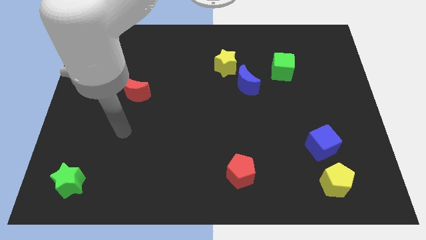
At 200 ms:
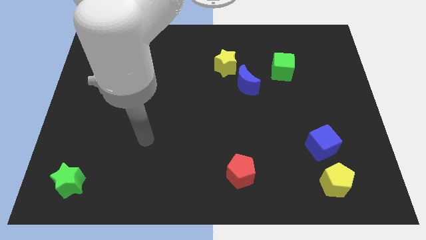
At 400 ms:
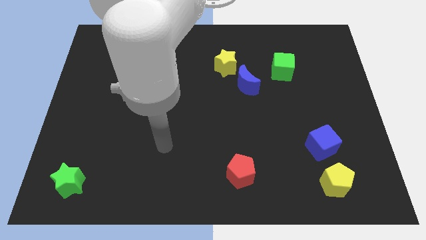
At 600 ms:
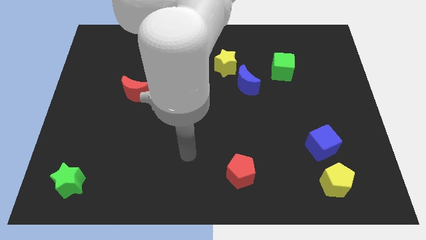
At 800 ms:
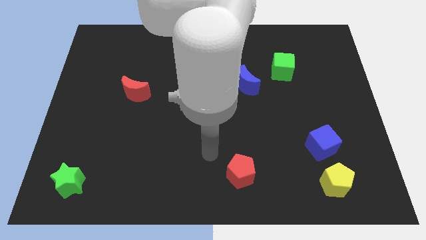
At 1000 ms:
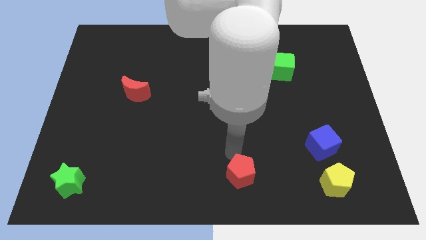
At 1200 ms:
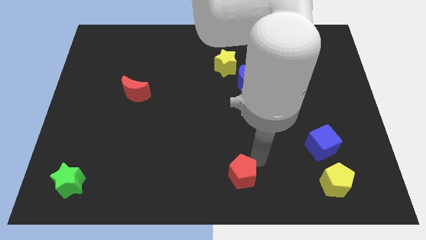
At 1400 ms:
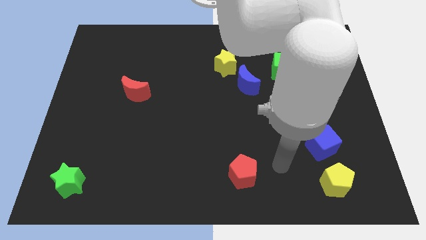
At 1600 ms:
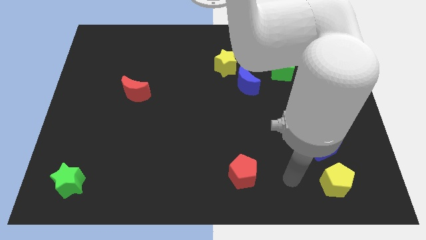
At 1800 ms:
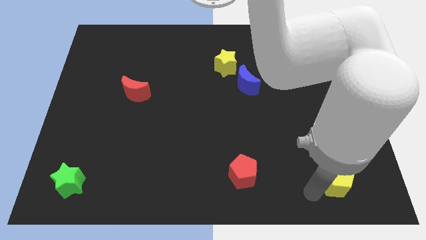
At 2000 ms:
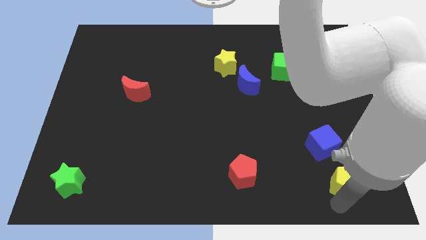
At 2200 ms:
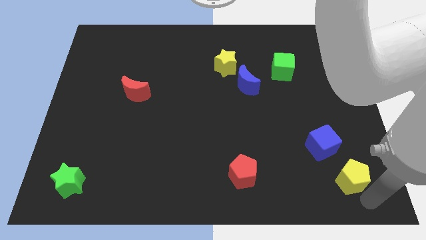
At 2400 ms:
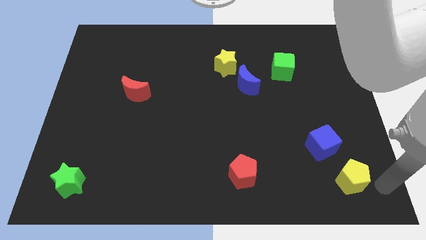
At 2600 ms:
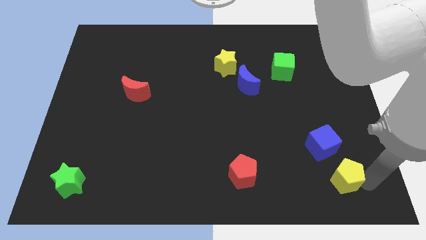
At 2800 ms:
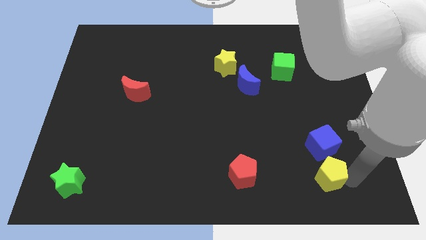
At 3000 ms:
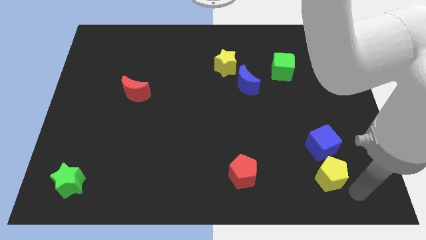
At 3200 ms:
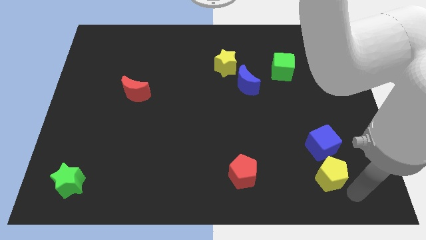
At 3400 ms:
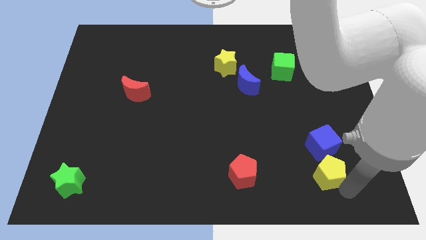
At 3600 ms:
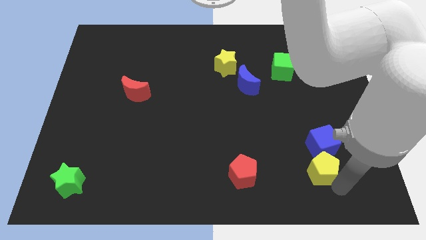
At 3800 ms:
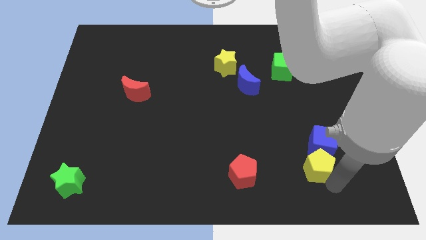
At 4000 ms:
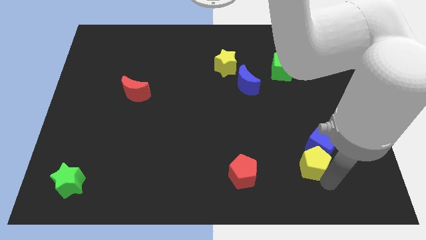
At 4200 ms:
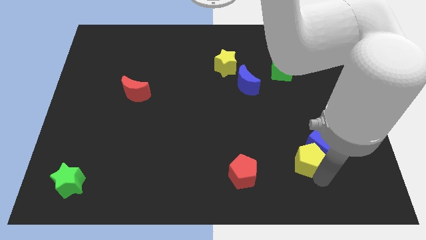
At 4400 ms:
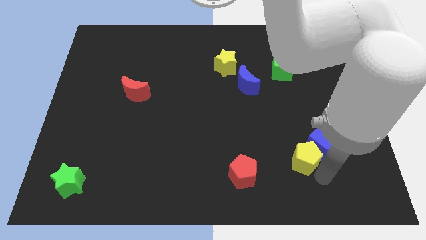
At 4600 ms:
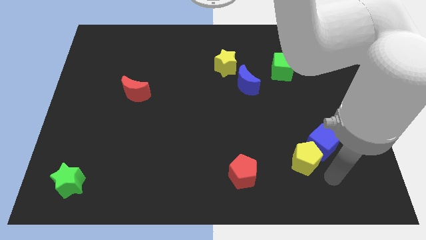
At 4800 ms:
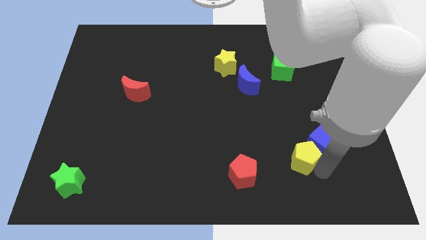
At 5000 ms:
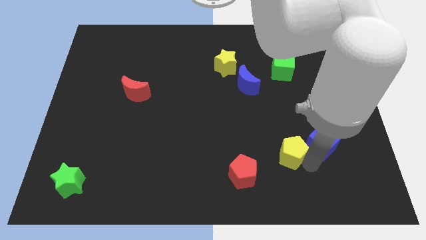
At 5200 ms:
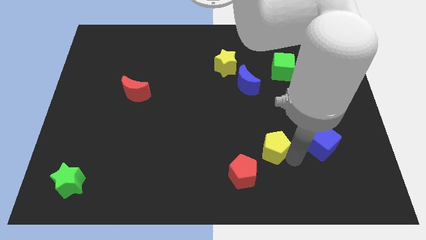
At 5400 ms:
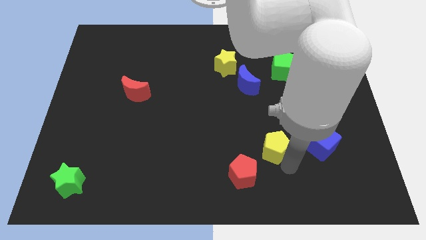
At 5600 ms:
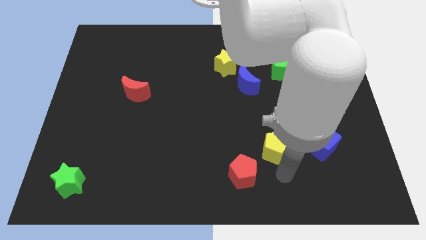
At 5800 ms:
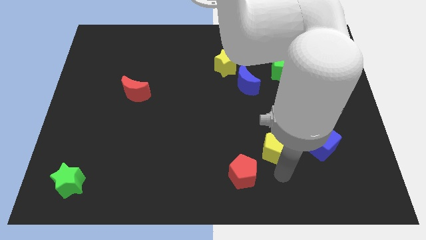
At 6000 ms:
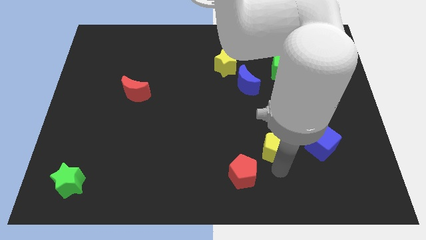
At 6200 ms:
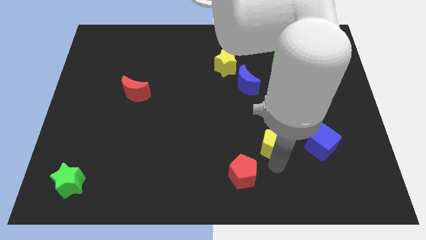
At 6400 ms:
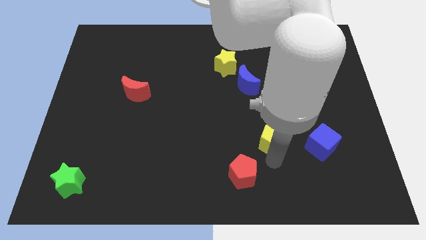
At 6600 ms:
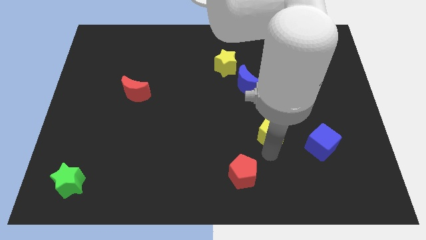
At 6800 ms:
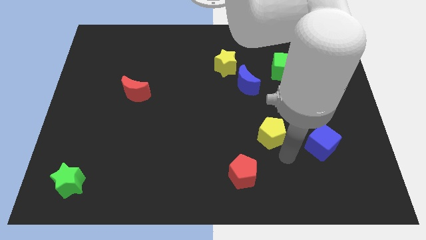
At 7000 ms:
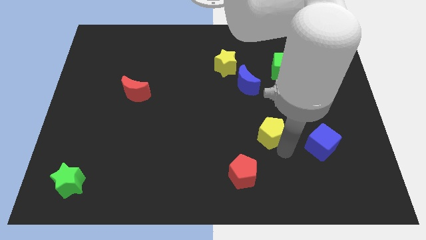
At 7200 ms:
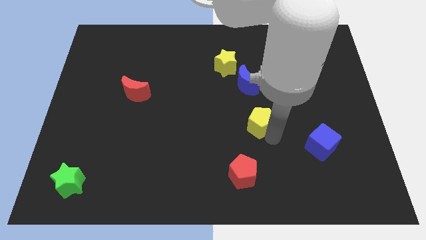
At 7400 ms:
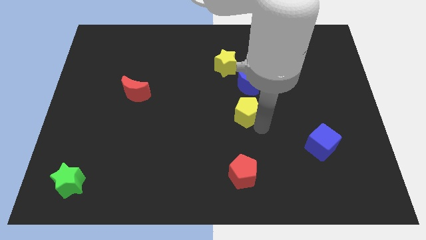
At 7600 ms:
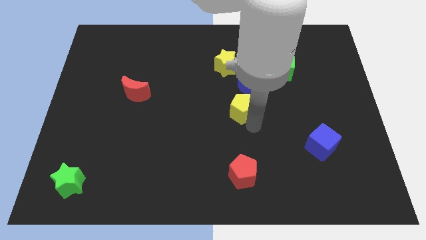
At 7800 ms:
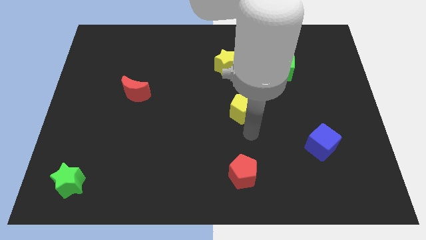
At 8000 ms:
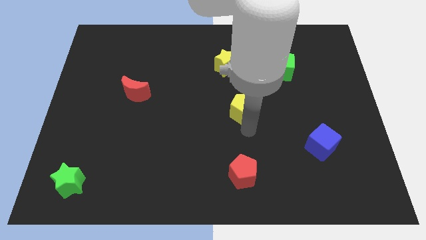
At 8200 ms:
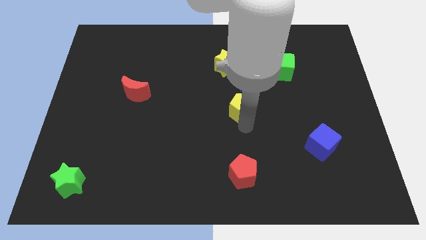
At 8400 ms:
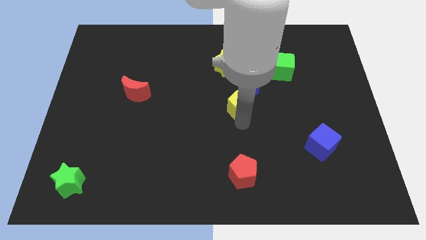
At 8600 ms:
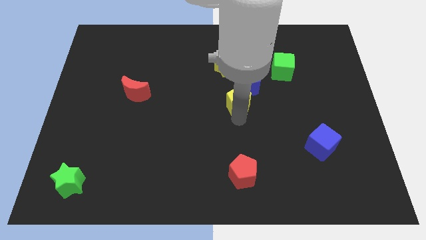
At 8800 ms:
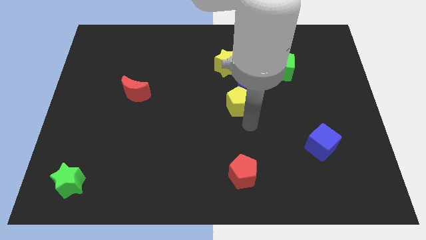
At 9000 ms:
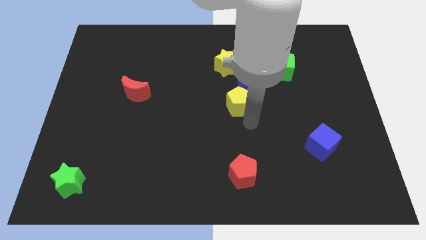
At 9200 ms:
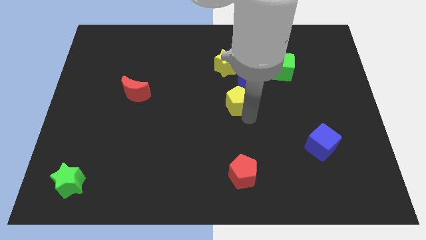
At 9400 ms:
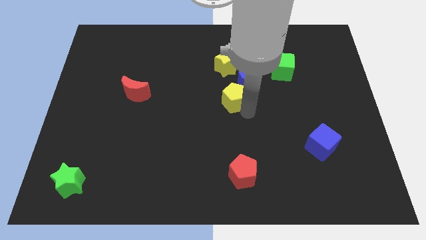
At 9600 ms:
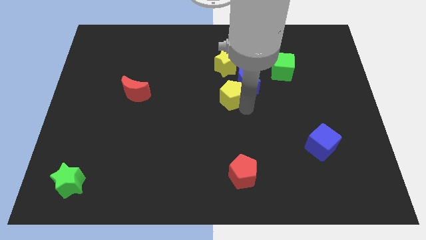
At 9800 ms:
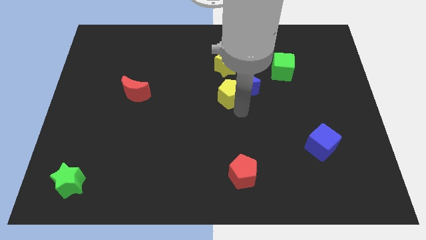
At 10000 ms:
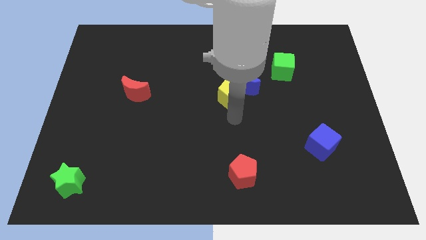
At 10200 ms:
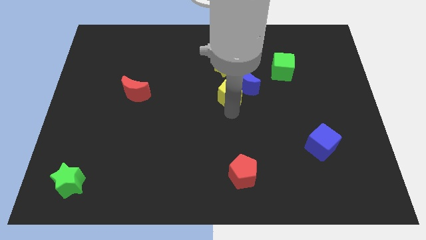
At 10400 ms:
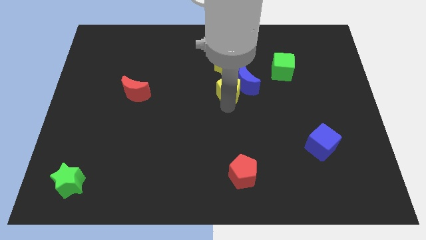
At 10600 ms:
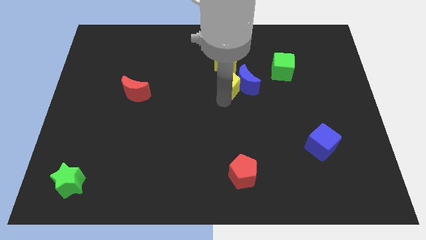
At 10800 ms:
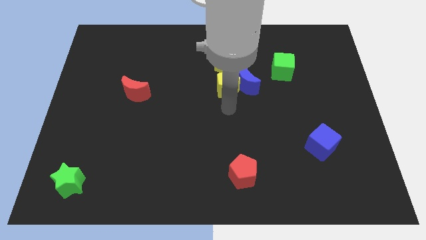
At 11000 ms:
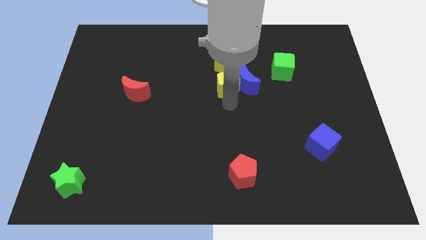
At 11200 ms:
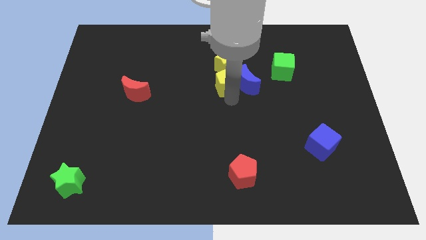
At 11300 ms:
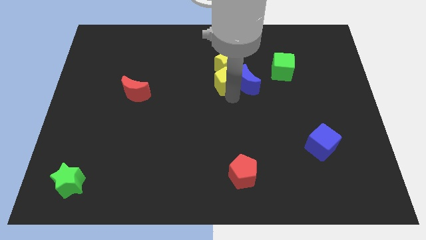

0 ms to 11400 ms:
put the yellow pentagon close to the yellow star

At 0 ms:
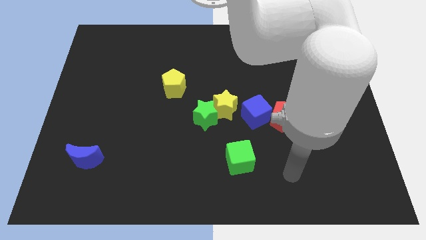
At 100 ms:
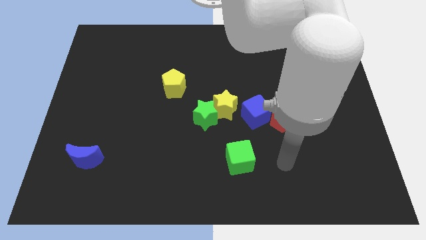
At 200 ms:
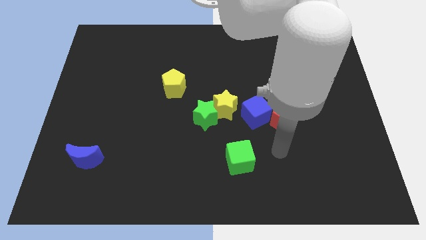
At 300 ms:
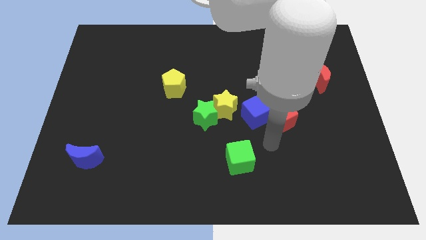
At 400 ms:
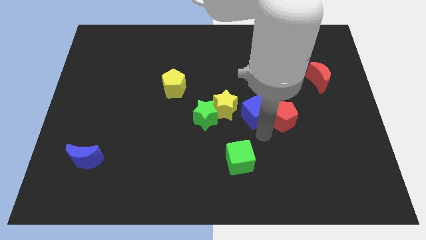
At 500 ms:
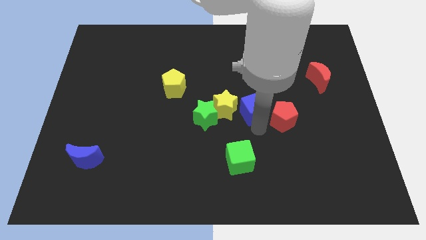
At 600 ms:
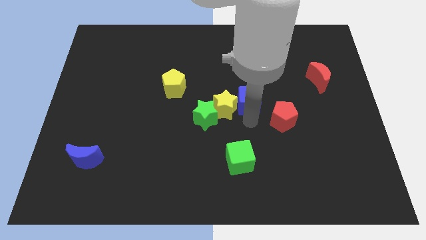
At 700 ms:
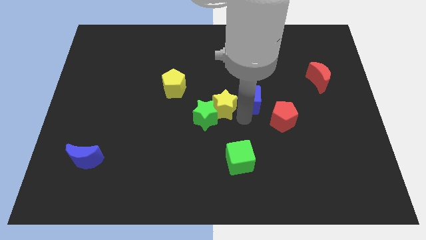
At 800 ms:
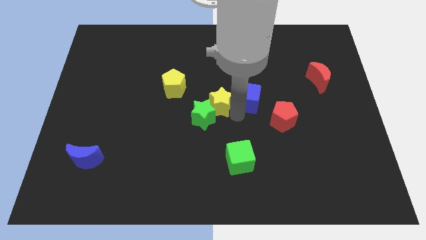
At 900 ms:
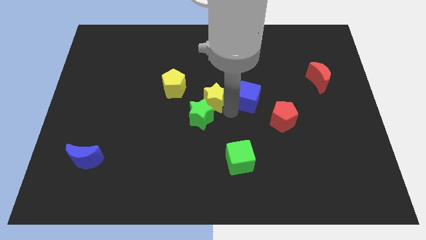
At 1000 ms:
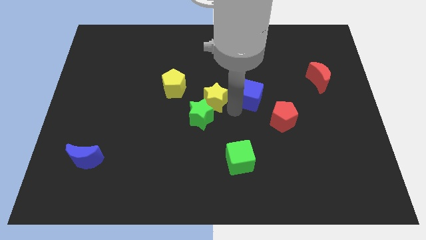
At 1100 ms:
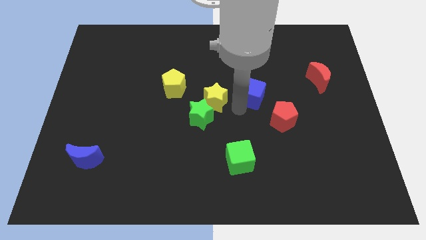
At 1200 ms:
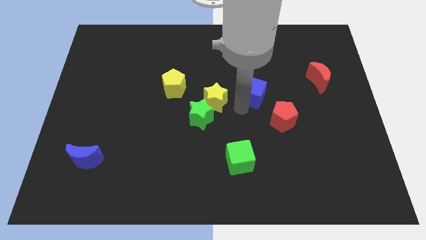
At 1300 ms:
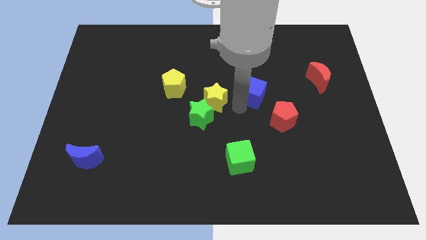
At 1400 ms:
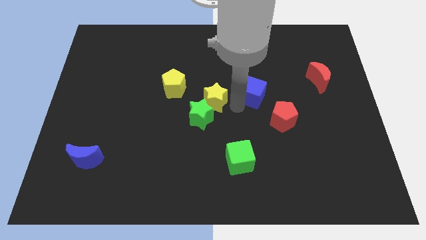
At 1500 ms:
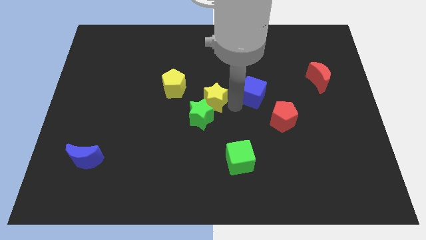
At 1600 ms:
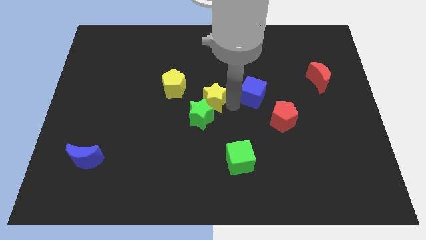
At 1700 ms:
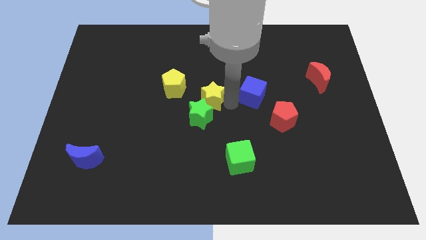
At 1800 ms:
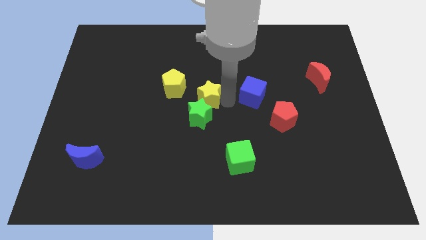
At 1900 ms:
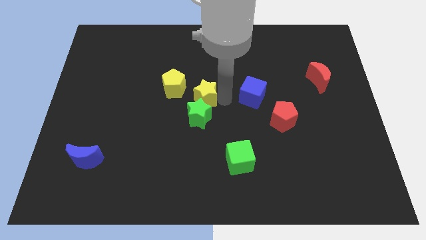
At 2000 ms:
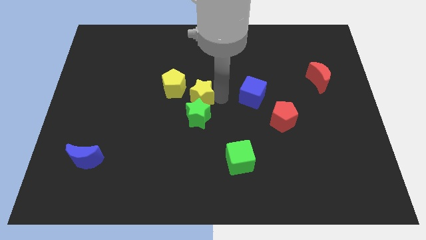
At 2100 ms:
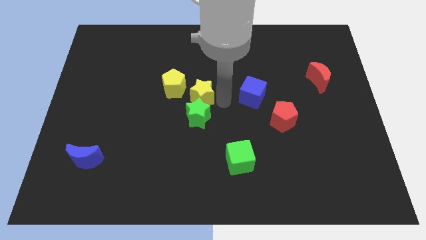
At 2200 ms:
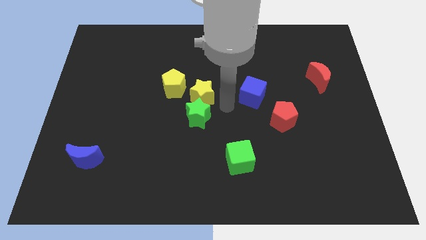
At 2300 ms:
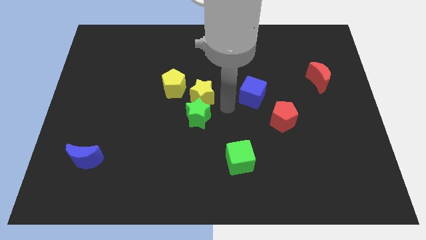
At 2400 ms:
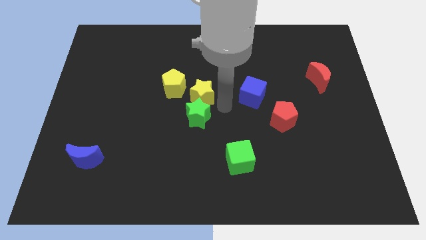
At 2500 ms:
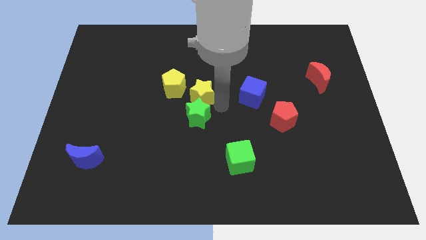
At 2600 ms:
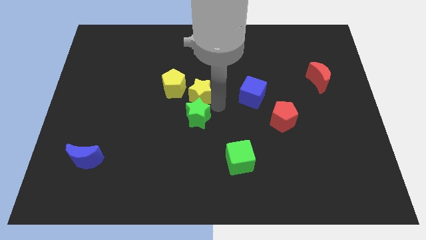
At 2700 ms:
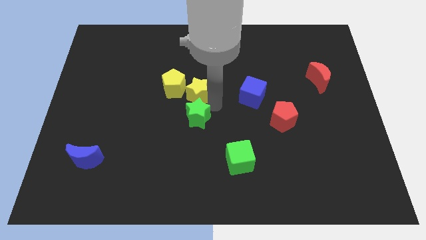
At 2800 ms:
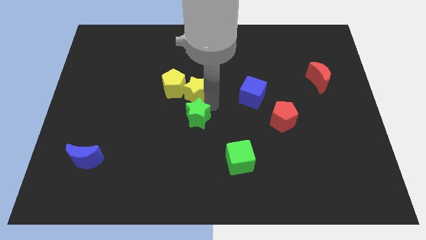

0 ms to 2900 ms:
move the yellow star close to the yellow pentagon
